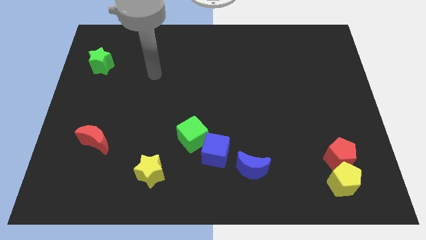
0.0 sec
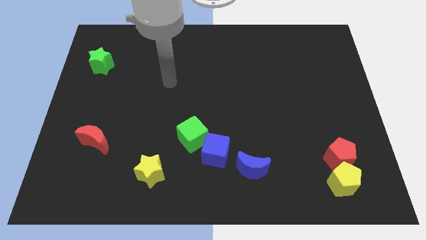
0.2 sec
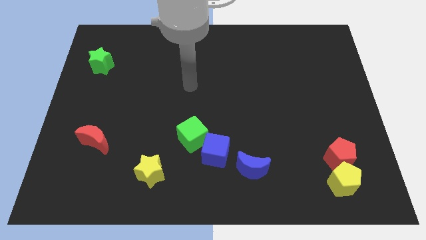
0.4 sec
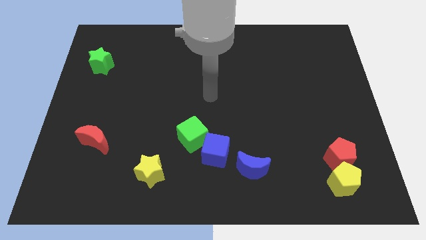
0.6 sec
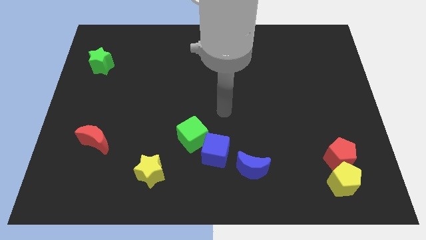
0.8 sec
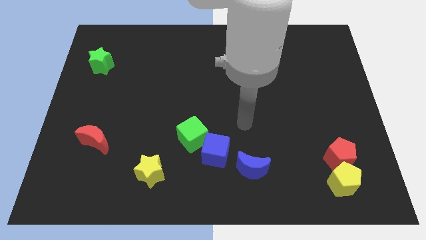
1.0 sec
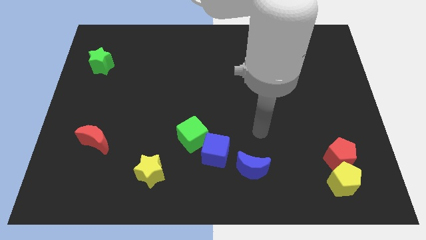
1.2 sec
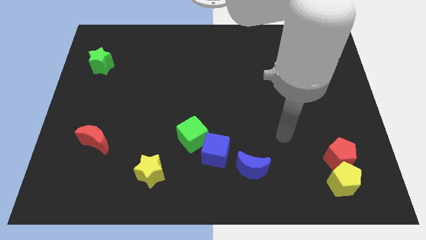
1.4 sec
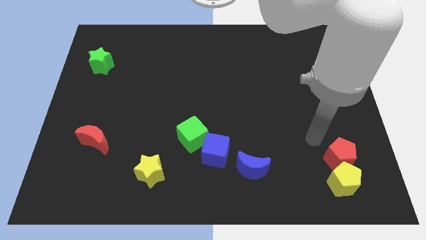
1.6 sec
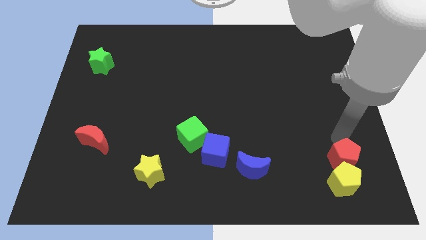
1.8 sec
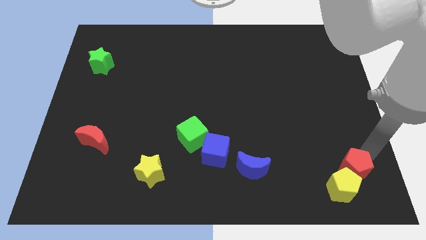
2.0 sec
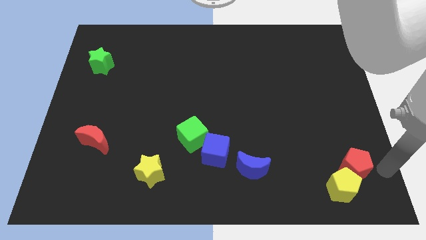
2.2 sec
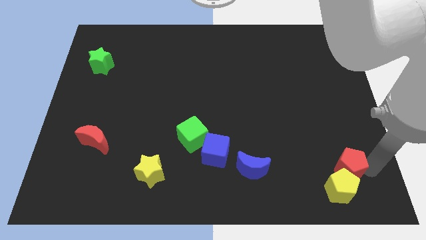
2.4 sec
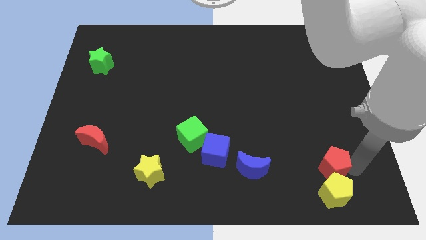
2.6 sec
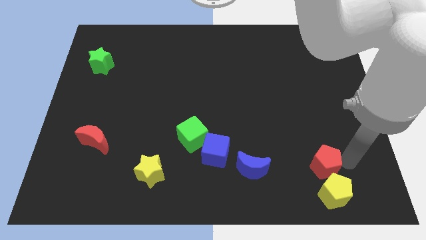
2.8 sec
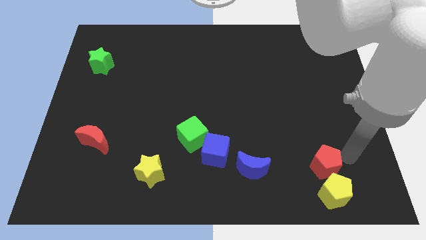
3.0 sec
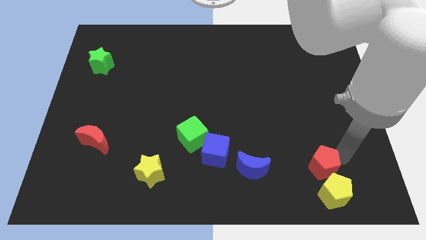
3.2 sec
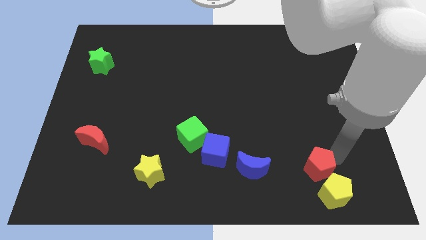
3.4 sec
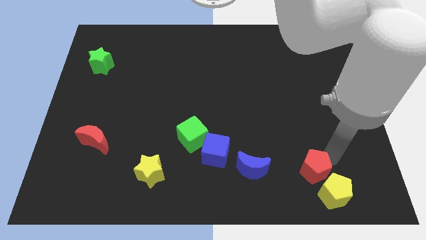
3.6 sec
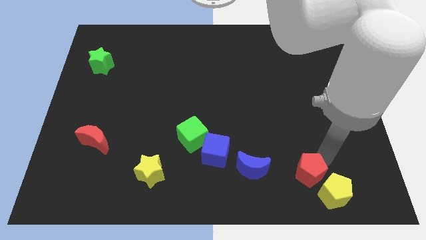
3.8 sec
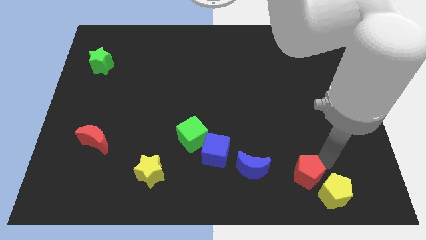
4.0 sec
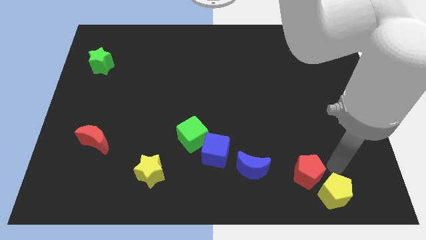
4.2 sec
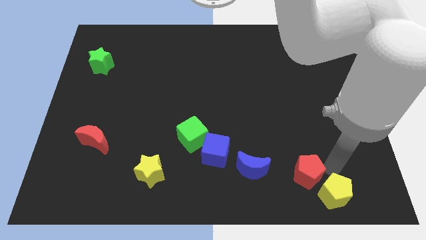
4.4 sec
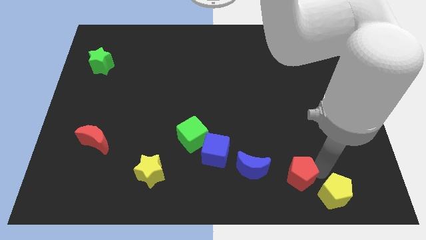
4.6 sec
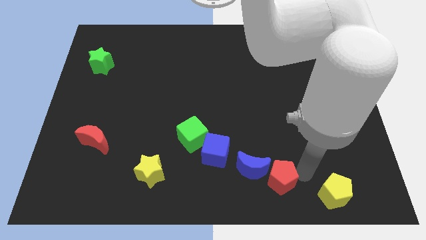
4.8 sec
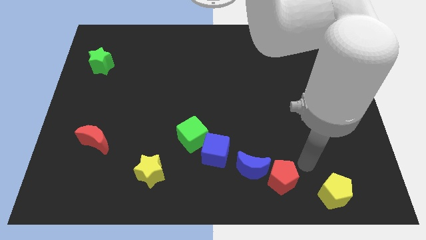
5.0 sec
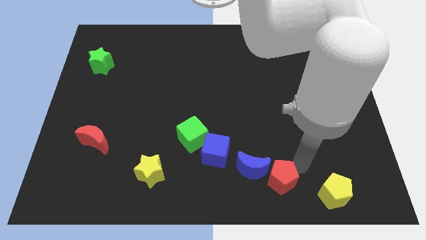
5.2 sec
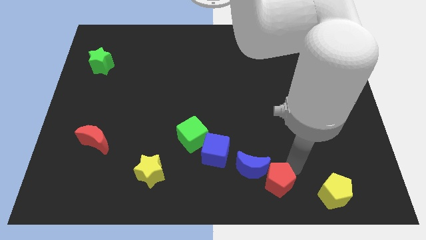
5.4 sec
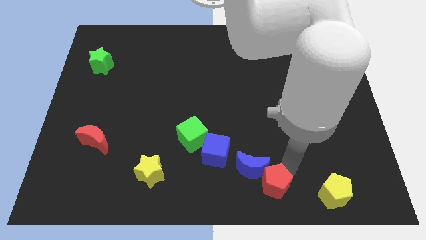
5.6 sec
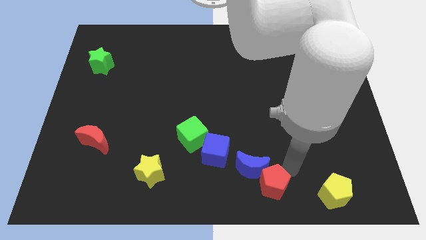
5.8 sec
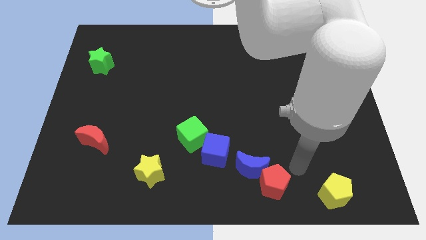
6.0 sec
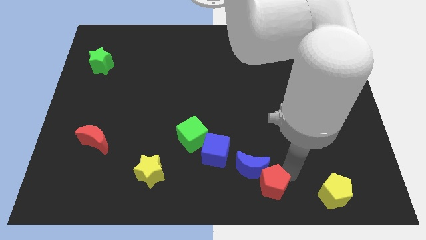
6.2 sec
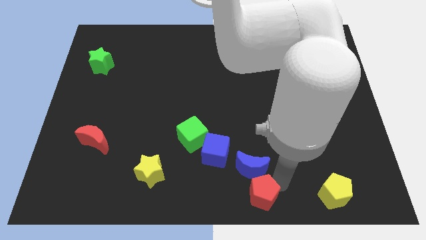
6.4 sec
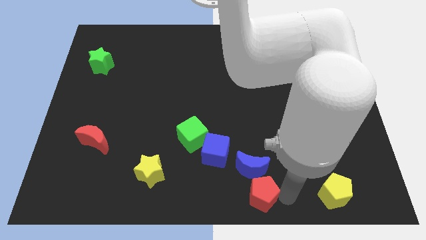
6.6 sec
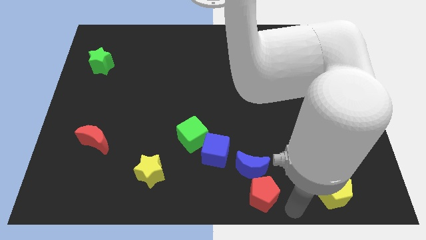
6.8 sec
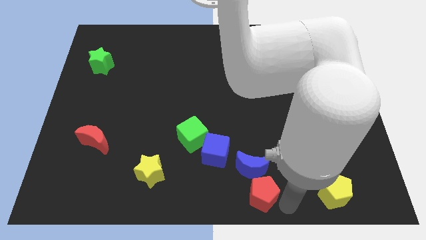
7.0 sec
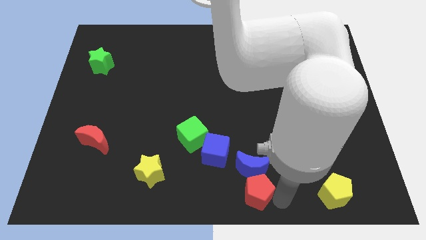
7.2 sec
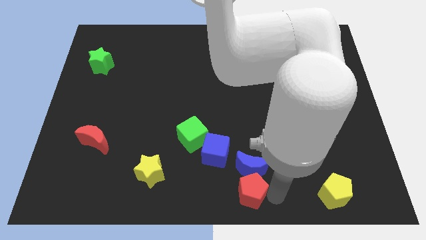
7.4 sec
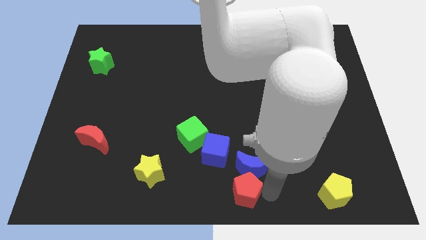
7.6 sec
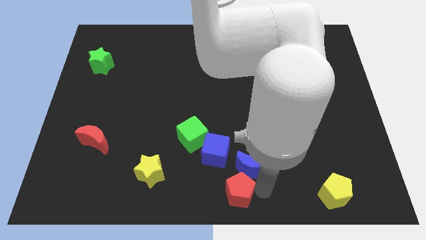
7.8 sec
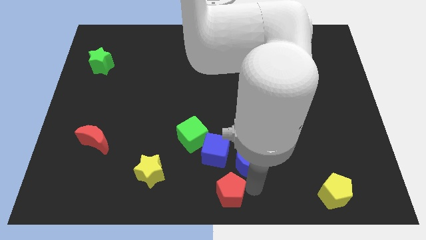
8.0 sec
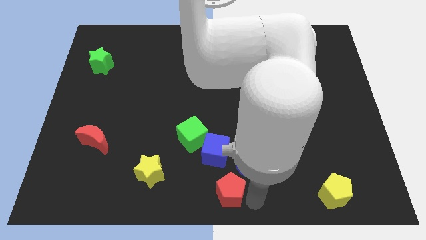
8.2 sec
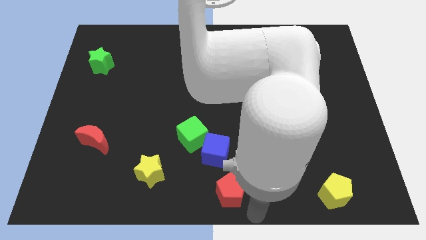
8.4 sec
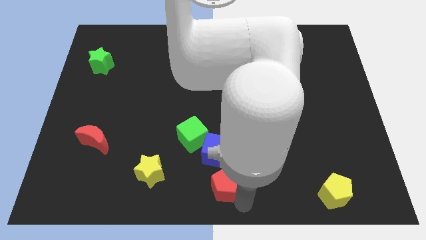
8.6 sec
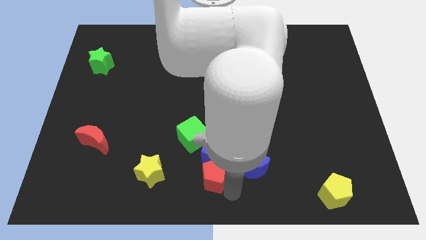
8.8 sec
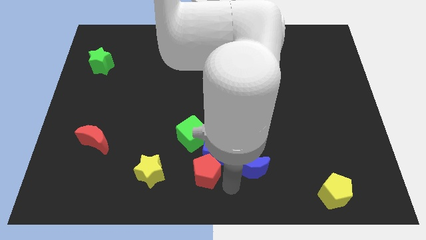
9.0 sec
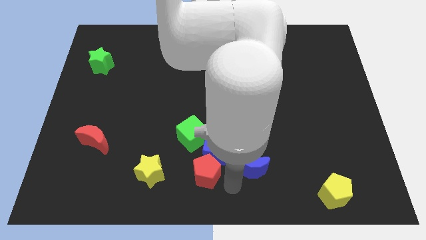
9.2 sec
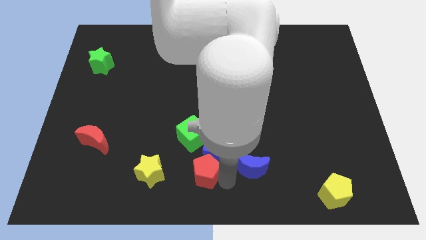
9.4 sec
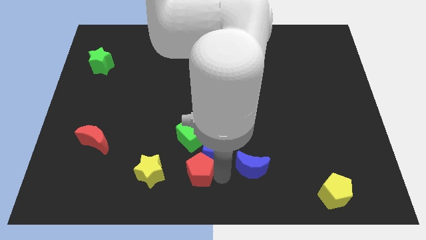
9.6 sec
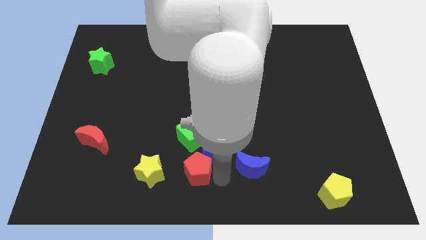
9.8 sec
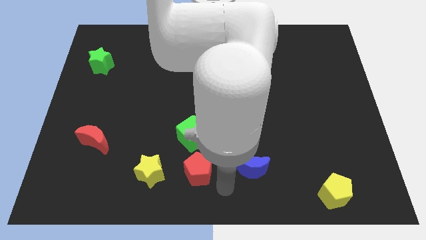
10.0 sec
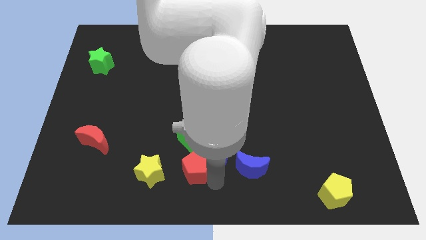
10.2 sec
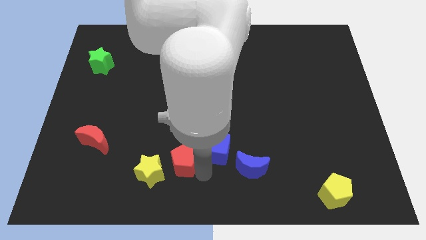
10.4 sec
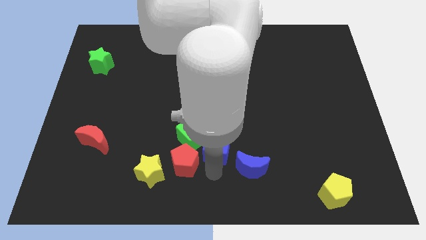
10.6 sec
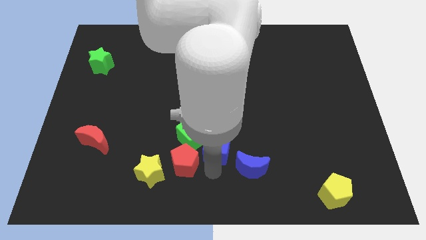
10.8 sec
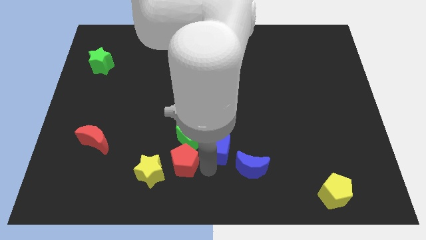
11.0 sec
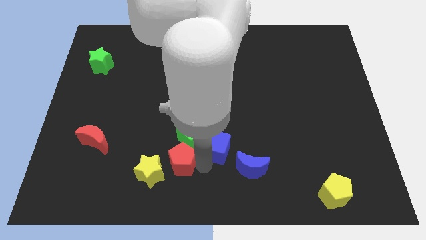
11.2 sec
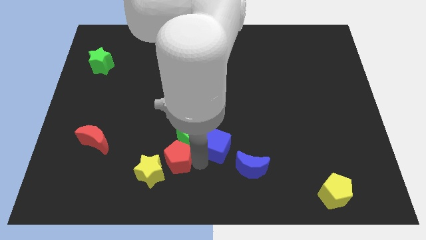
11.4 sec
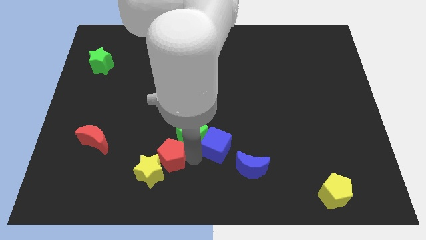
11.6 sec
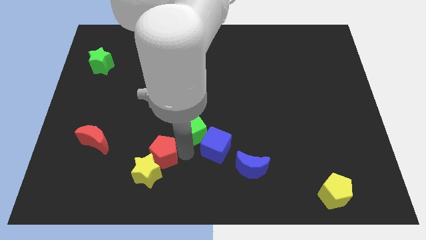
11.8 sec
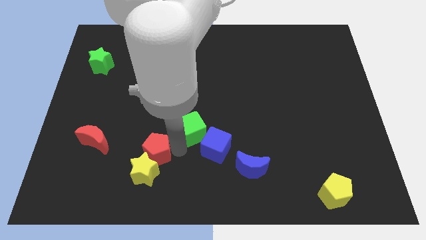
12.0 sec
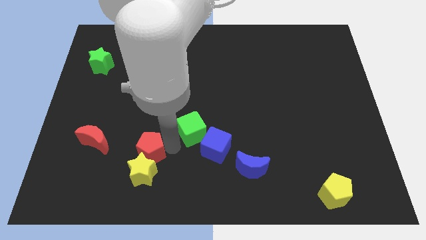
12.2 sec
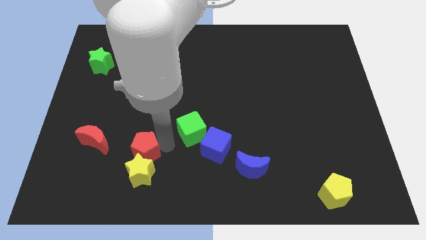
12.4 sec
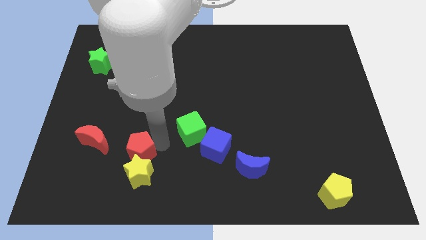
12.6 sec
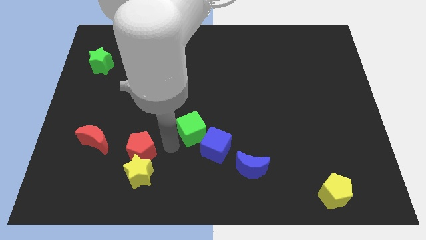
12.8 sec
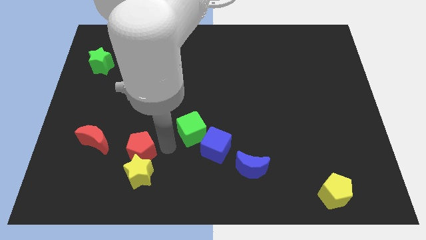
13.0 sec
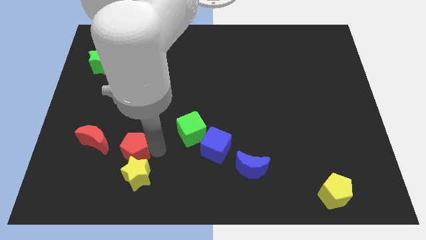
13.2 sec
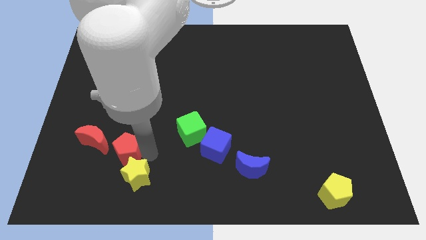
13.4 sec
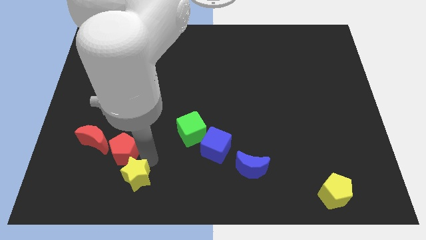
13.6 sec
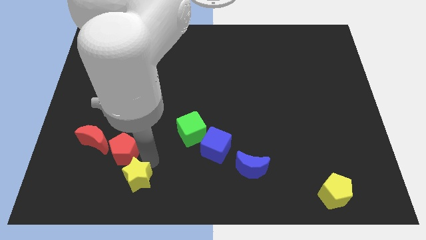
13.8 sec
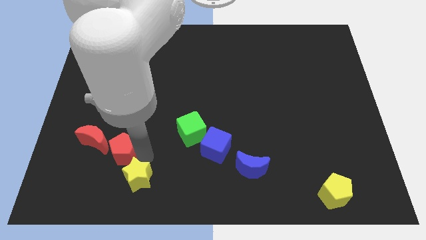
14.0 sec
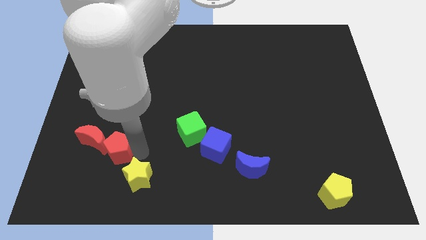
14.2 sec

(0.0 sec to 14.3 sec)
move the red pentagon close to the red moon
